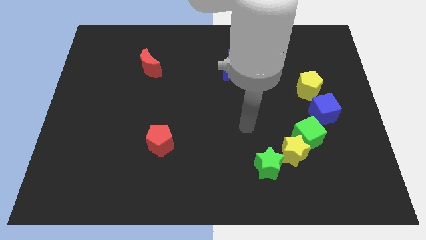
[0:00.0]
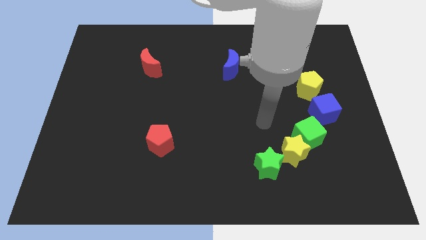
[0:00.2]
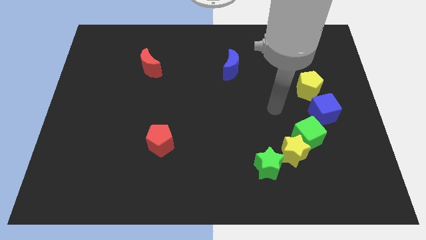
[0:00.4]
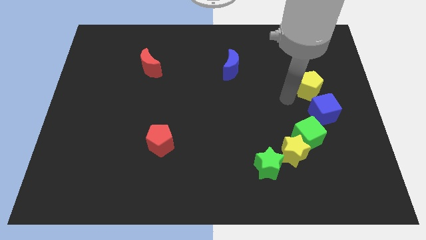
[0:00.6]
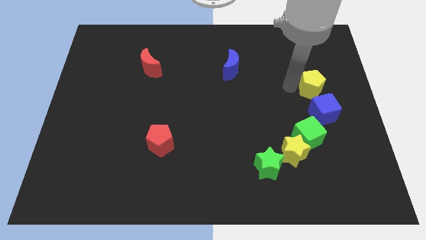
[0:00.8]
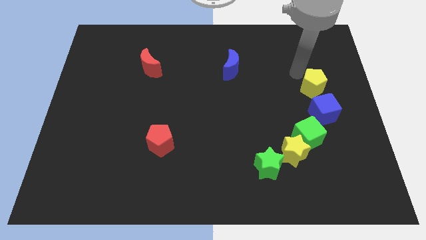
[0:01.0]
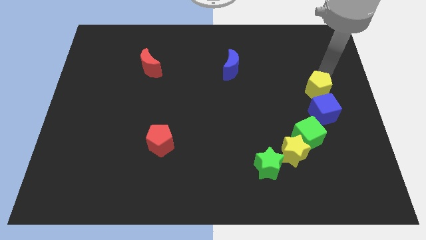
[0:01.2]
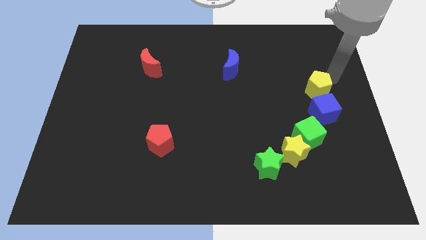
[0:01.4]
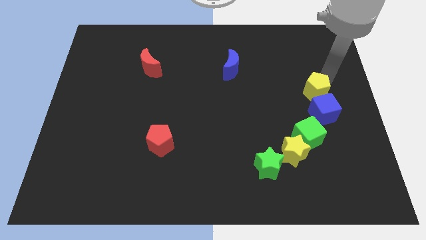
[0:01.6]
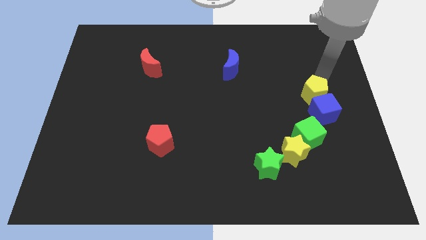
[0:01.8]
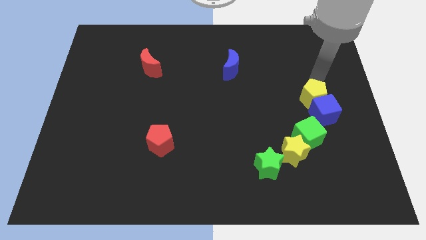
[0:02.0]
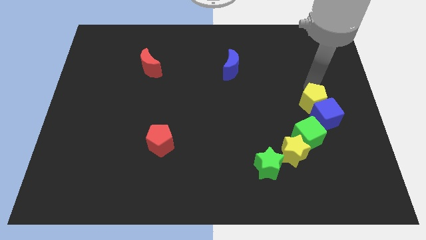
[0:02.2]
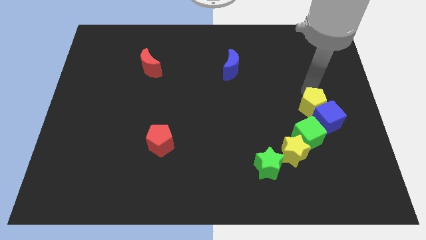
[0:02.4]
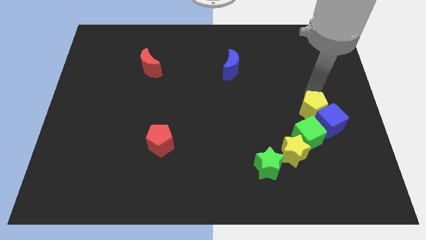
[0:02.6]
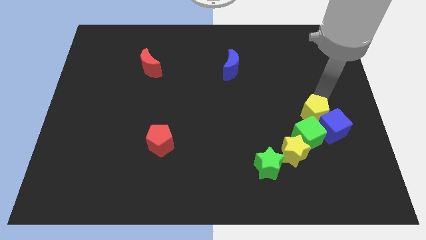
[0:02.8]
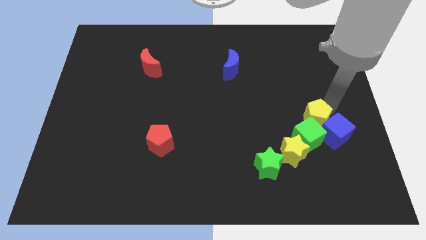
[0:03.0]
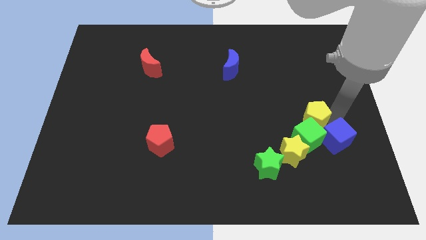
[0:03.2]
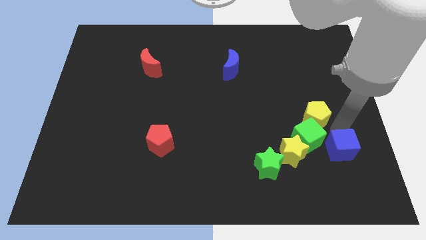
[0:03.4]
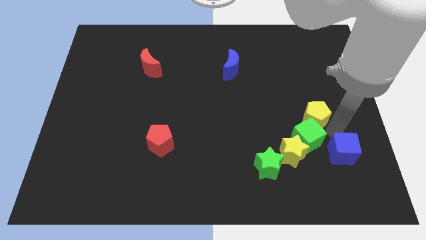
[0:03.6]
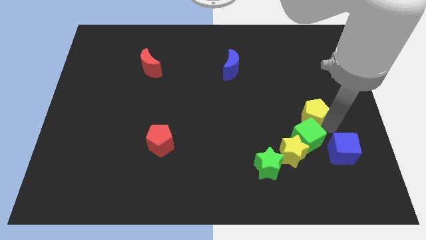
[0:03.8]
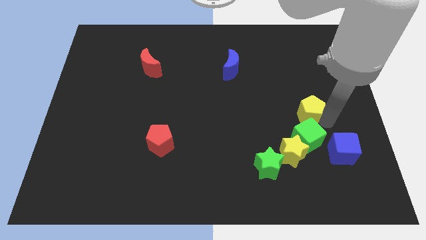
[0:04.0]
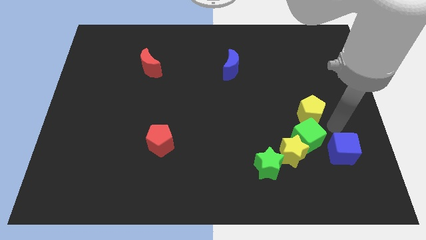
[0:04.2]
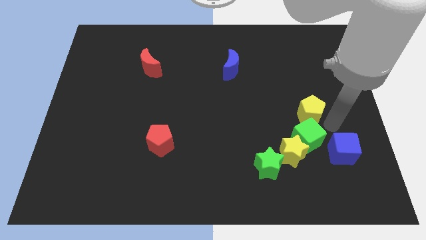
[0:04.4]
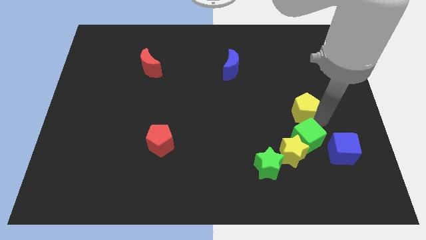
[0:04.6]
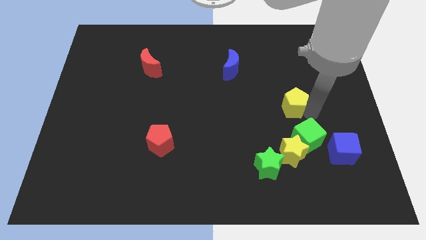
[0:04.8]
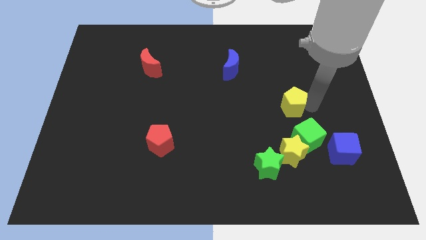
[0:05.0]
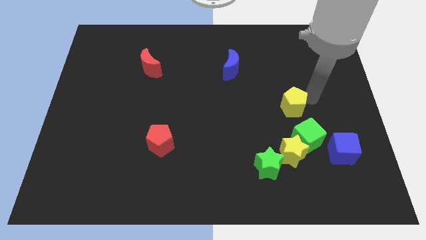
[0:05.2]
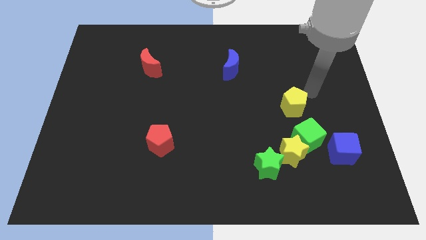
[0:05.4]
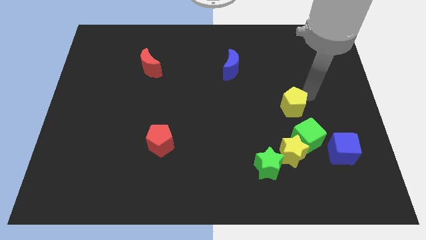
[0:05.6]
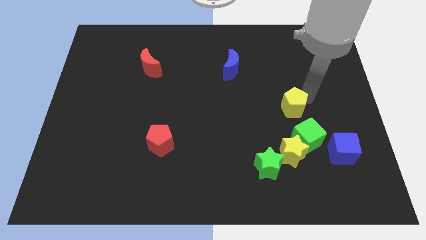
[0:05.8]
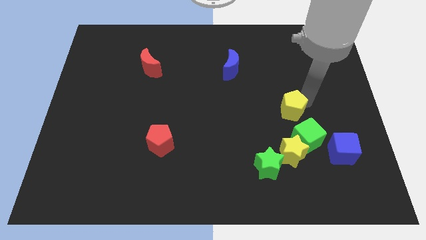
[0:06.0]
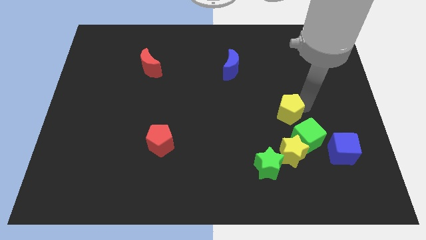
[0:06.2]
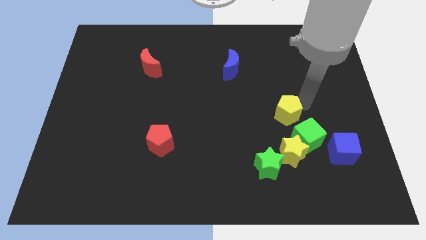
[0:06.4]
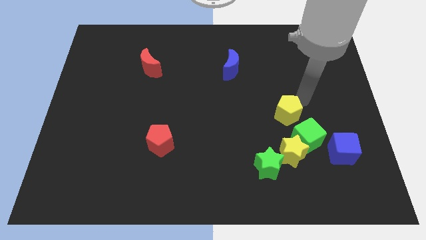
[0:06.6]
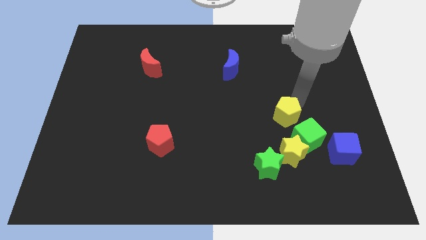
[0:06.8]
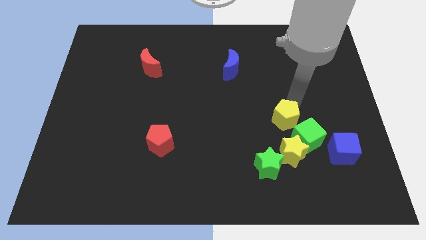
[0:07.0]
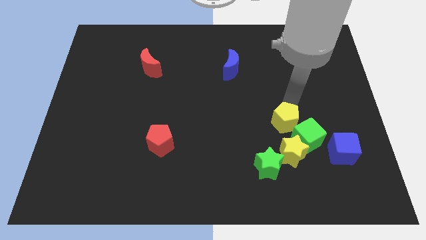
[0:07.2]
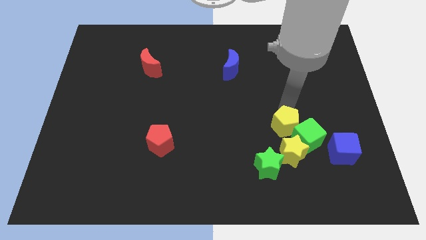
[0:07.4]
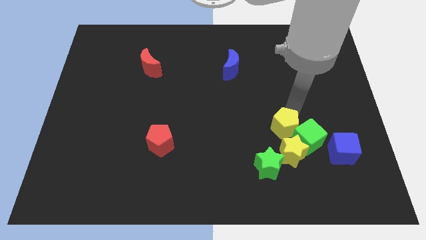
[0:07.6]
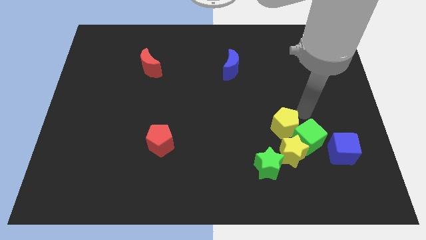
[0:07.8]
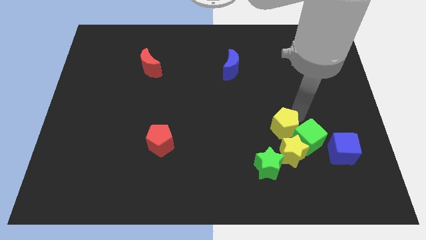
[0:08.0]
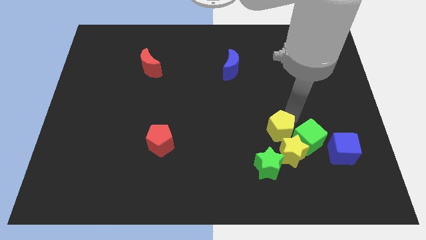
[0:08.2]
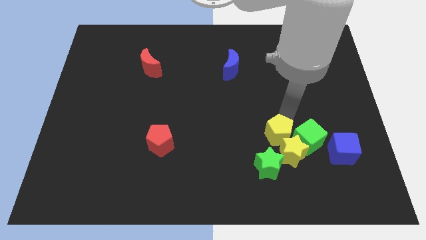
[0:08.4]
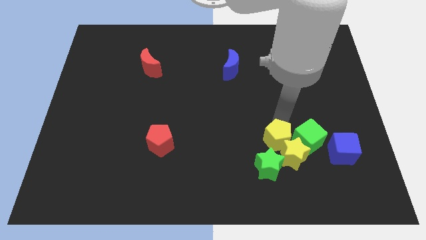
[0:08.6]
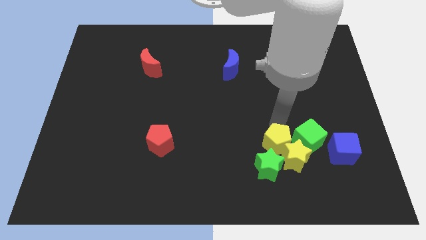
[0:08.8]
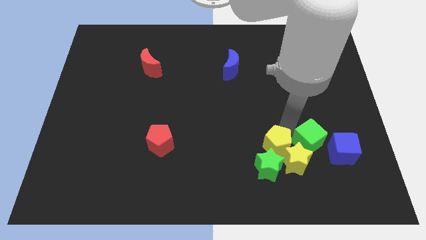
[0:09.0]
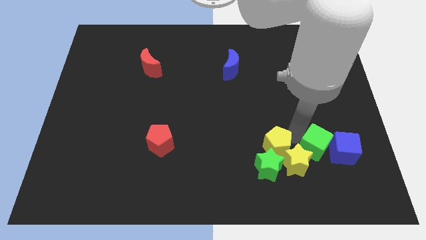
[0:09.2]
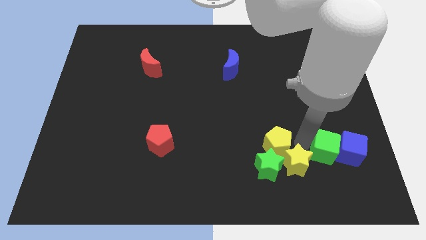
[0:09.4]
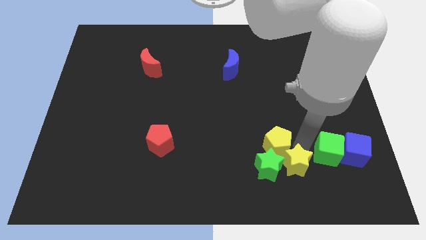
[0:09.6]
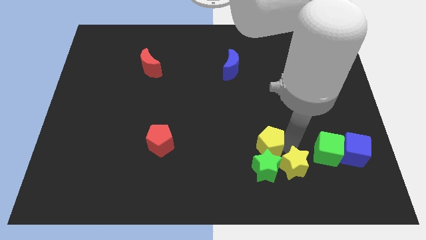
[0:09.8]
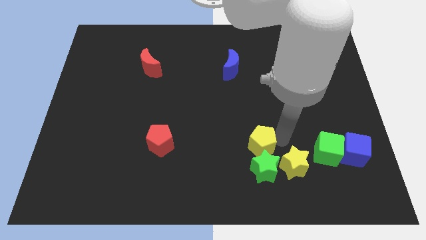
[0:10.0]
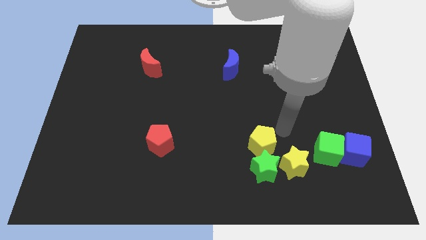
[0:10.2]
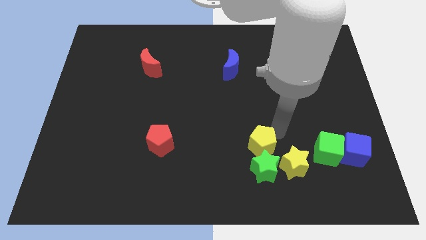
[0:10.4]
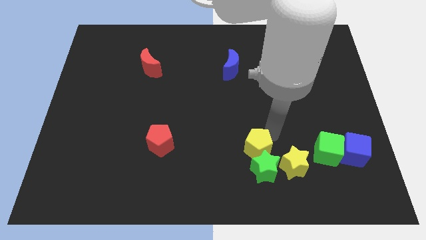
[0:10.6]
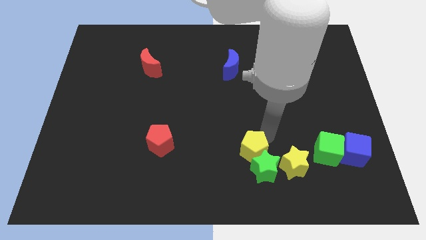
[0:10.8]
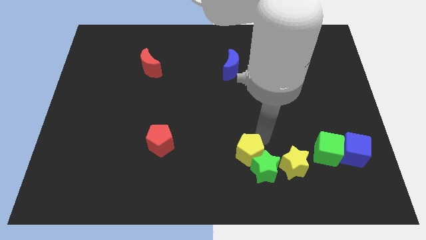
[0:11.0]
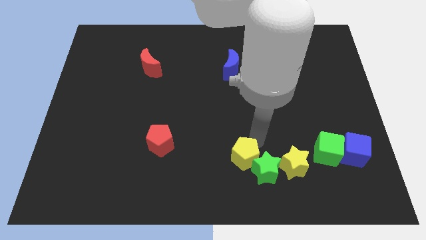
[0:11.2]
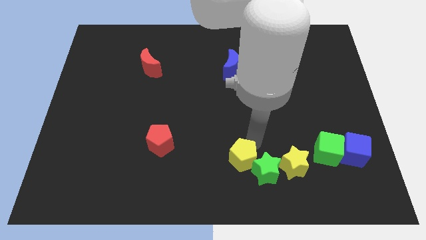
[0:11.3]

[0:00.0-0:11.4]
put the yellow pentagon to the bottom
